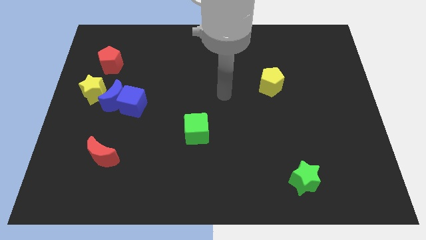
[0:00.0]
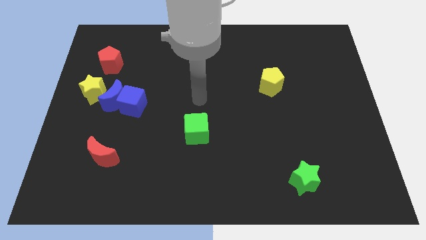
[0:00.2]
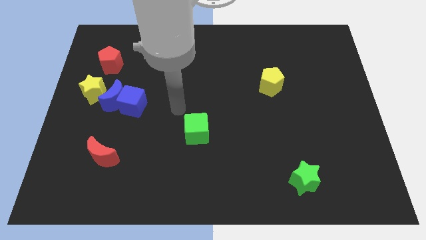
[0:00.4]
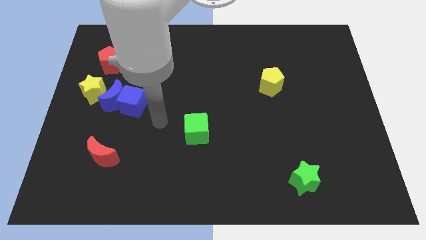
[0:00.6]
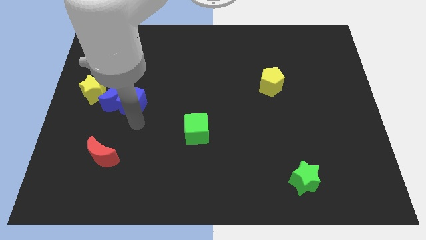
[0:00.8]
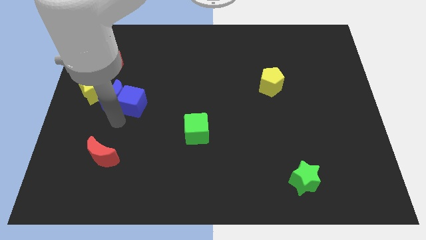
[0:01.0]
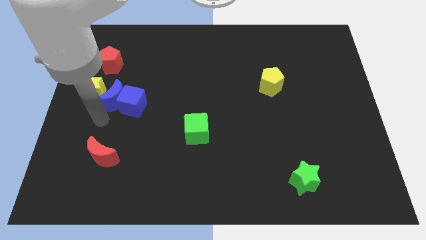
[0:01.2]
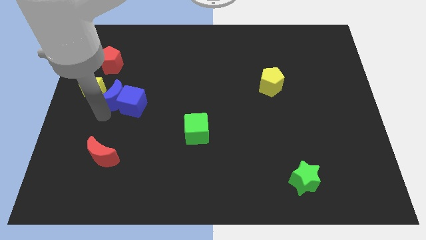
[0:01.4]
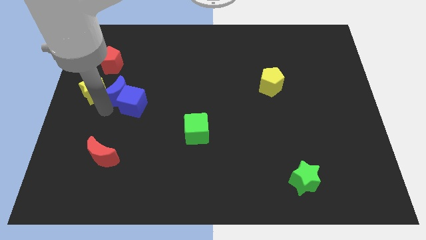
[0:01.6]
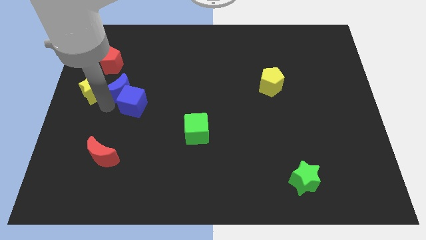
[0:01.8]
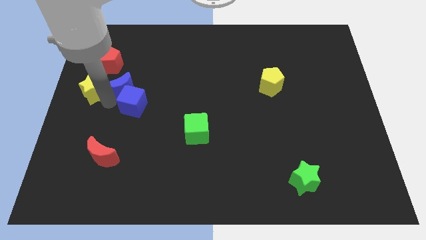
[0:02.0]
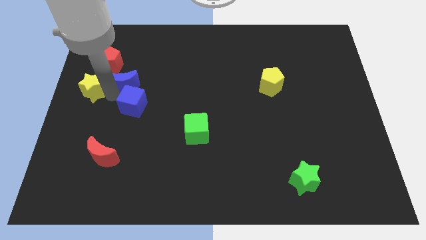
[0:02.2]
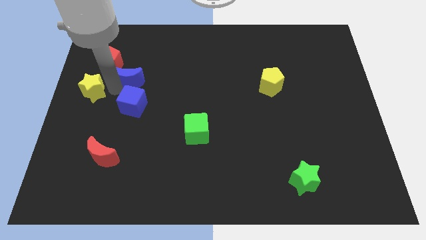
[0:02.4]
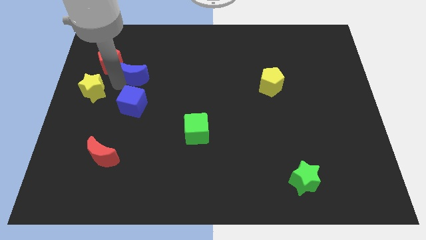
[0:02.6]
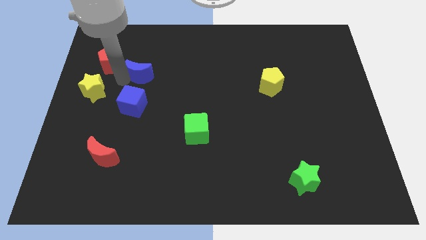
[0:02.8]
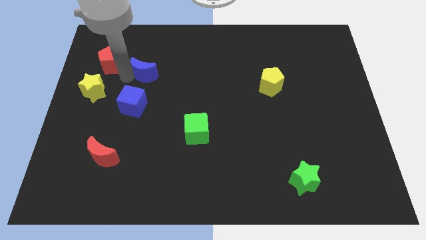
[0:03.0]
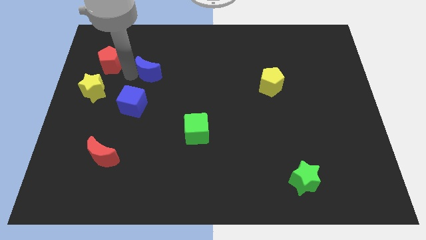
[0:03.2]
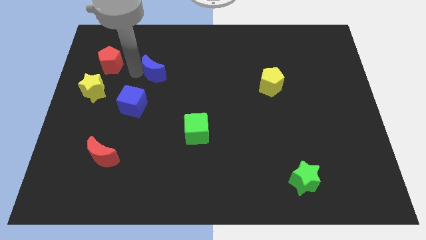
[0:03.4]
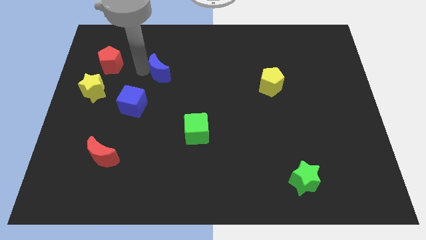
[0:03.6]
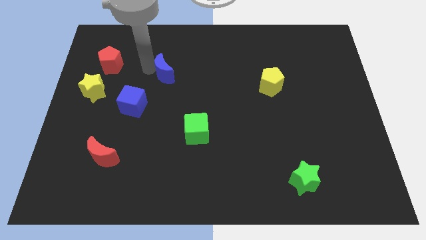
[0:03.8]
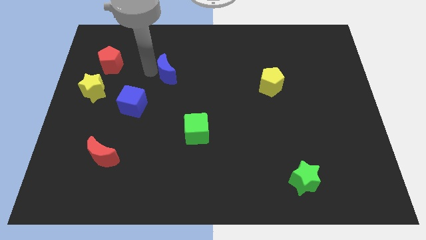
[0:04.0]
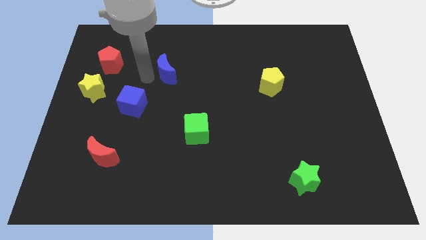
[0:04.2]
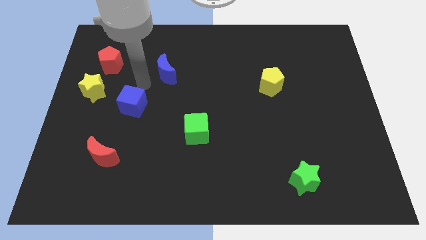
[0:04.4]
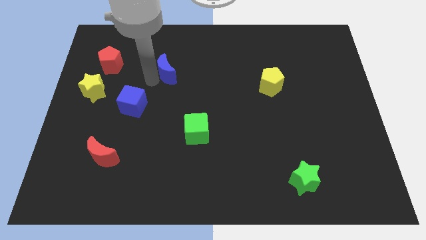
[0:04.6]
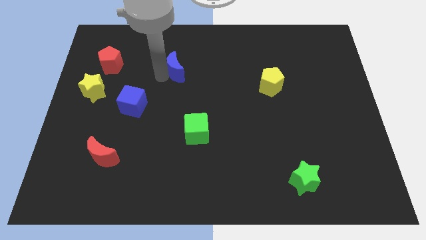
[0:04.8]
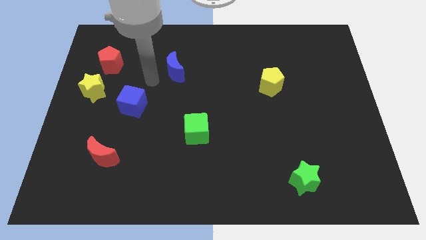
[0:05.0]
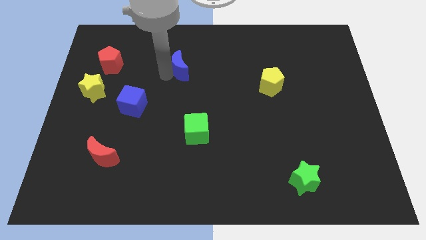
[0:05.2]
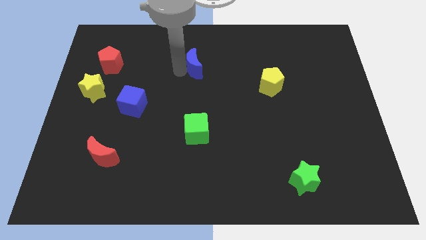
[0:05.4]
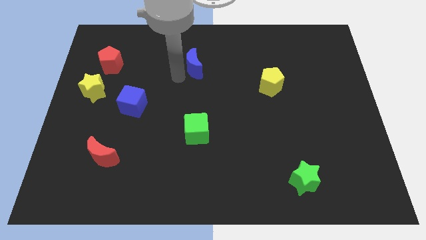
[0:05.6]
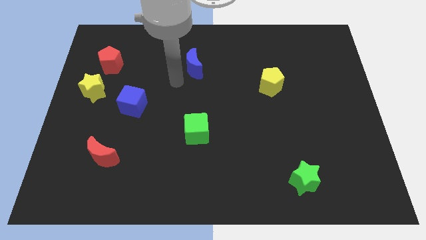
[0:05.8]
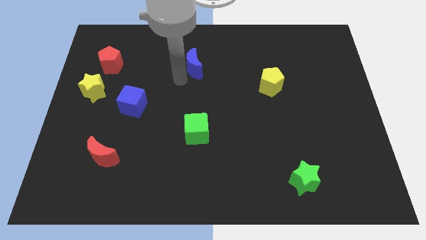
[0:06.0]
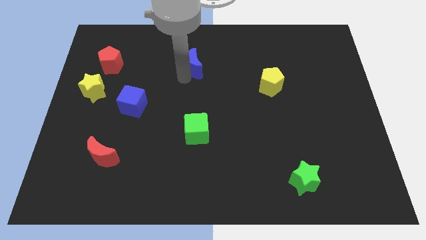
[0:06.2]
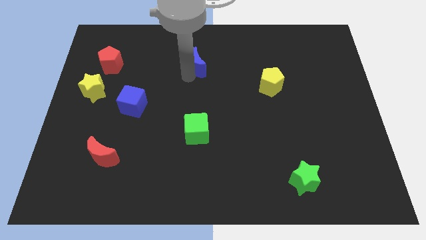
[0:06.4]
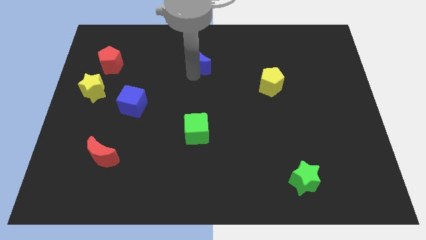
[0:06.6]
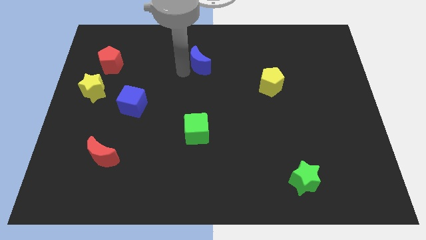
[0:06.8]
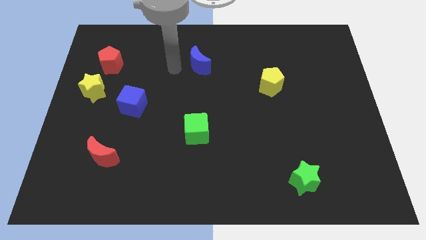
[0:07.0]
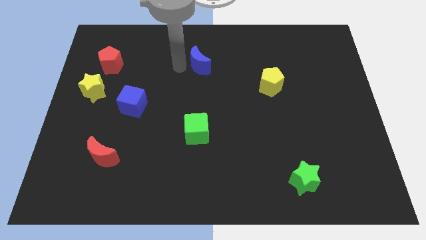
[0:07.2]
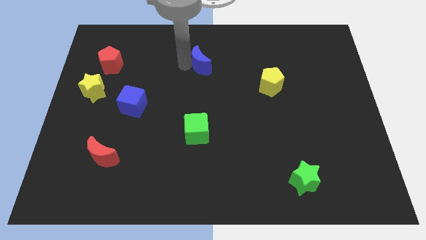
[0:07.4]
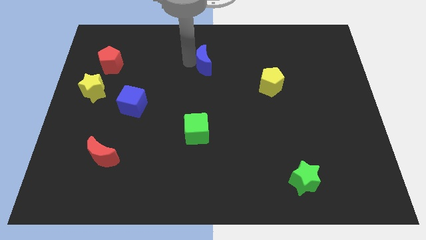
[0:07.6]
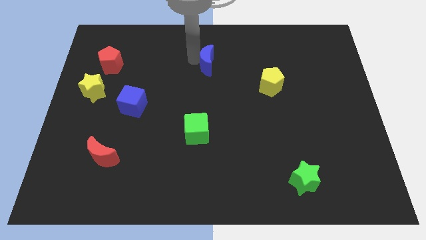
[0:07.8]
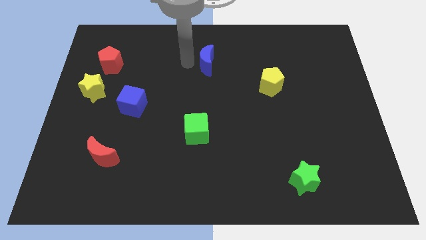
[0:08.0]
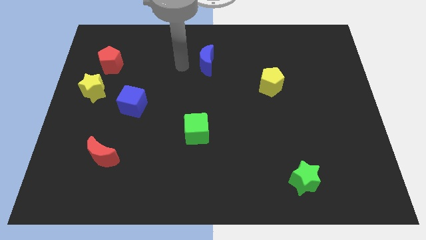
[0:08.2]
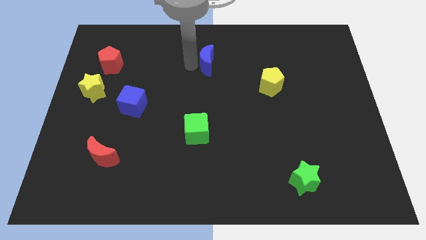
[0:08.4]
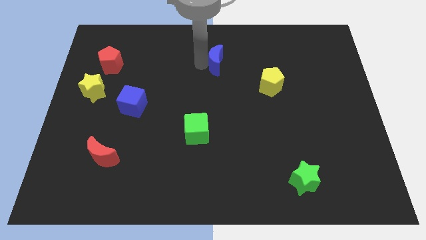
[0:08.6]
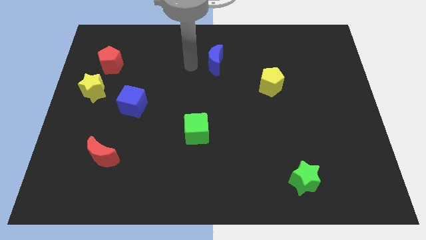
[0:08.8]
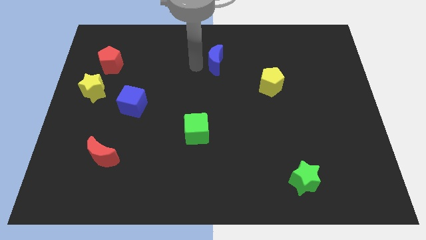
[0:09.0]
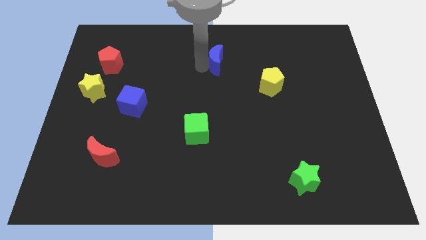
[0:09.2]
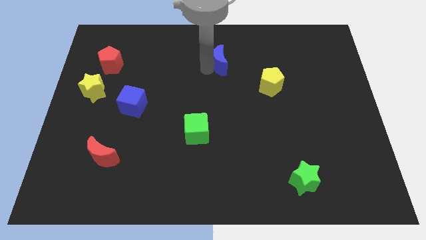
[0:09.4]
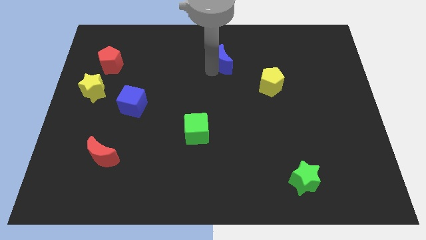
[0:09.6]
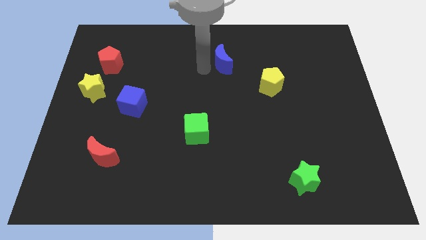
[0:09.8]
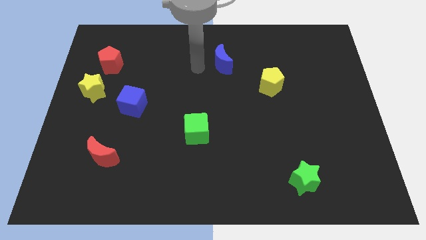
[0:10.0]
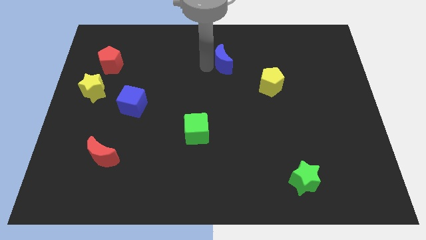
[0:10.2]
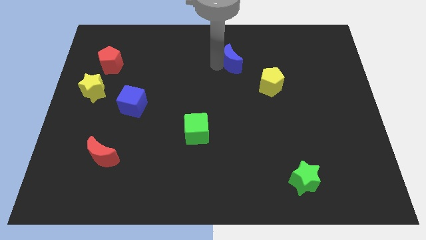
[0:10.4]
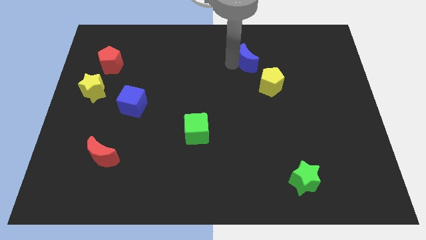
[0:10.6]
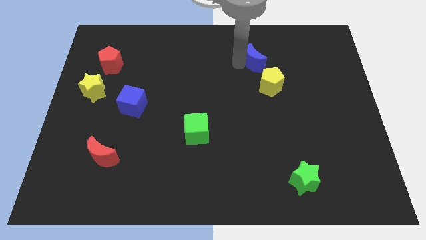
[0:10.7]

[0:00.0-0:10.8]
put the blue moon above the yellow pentagon

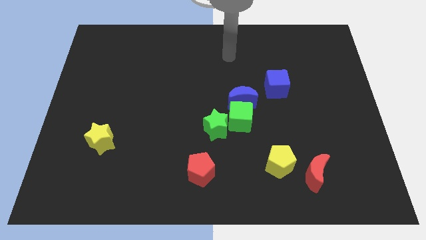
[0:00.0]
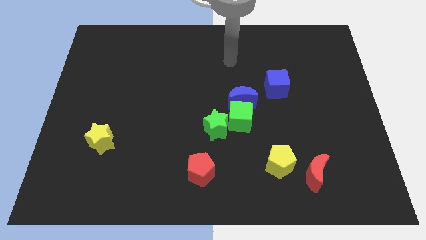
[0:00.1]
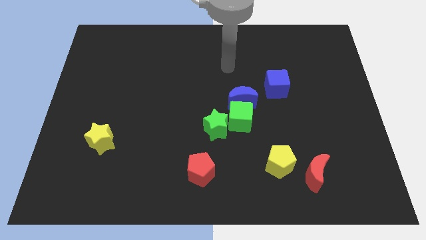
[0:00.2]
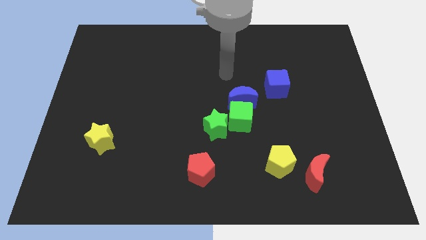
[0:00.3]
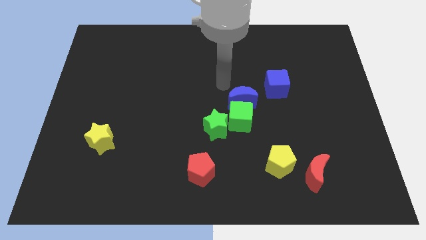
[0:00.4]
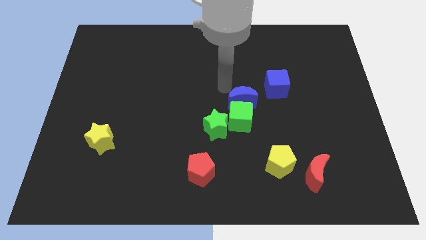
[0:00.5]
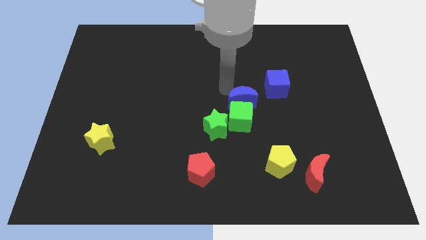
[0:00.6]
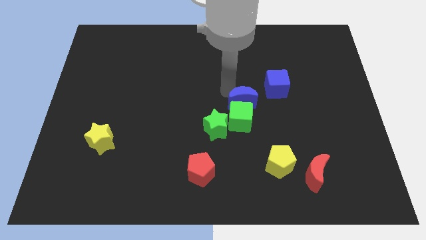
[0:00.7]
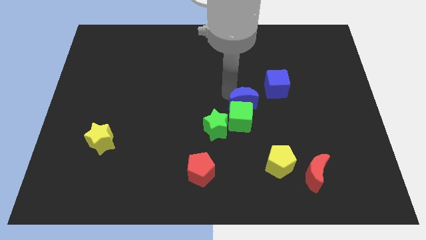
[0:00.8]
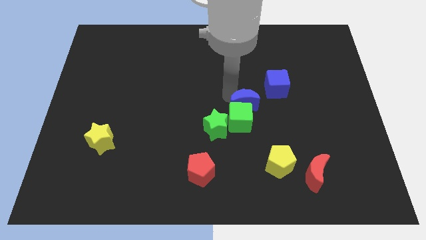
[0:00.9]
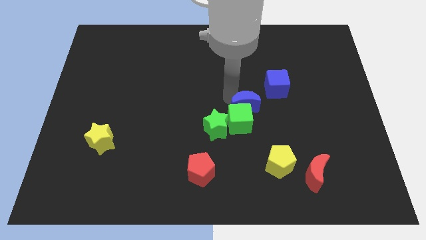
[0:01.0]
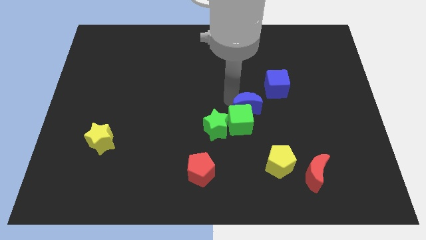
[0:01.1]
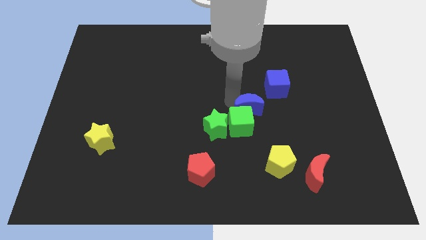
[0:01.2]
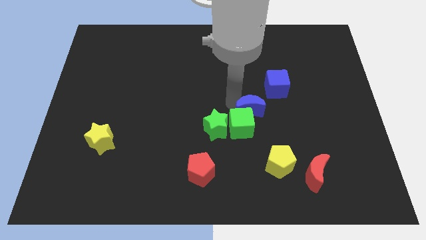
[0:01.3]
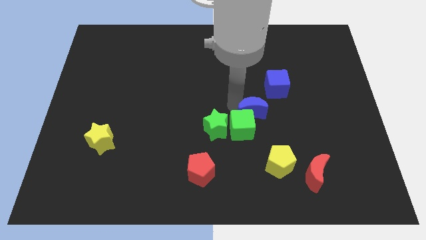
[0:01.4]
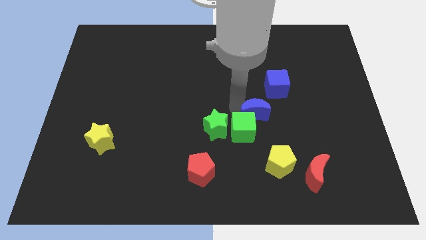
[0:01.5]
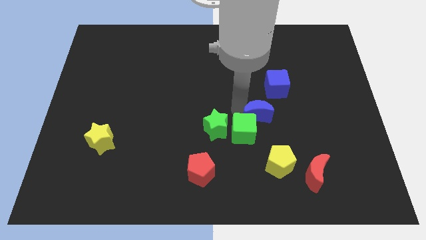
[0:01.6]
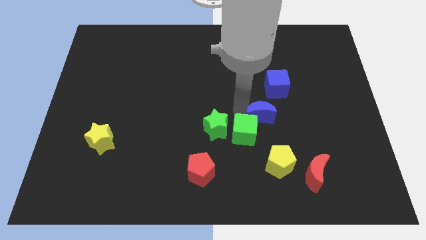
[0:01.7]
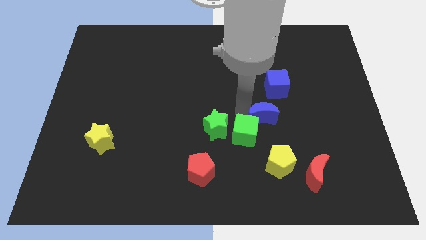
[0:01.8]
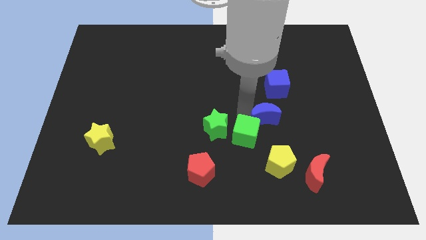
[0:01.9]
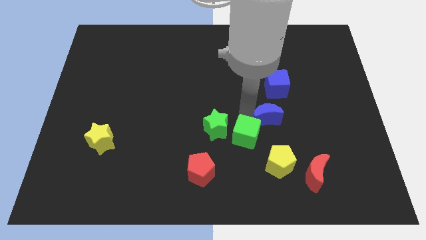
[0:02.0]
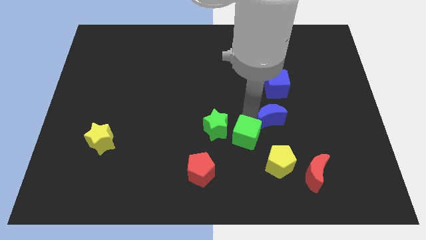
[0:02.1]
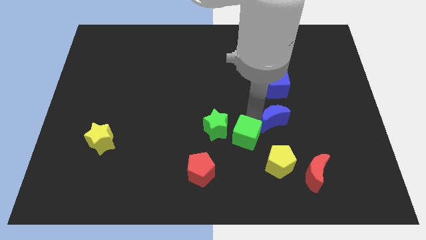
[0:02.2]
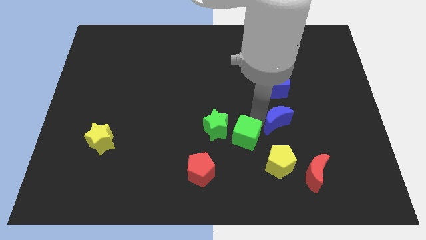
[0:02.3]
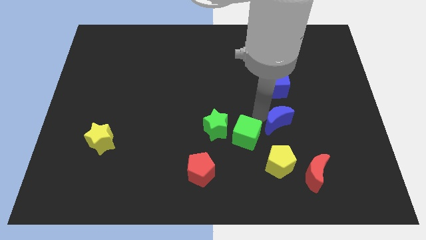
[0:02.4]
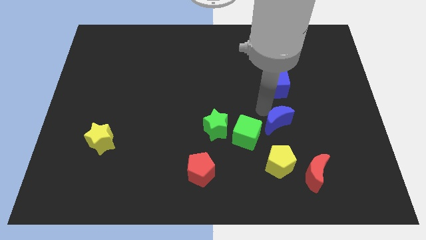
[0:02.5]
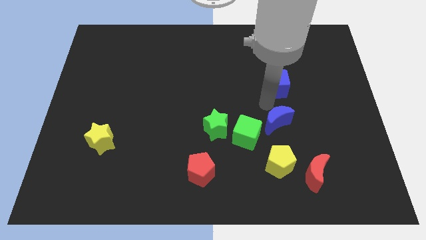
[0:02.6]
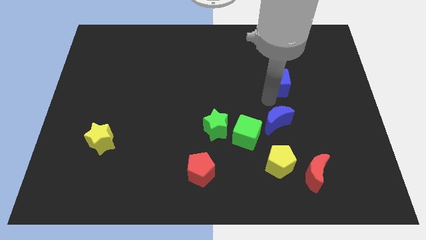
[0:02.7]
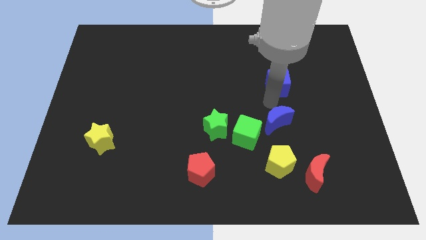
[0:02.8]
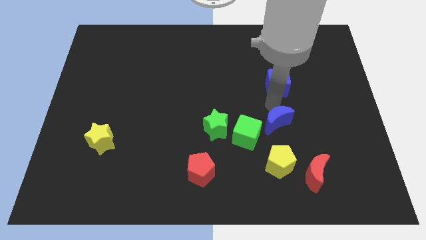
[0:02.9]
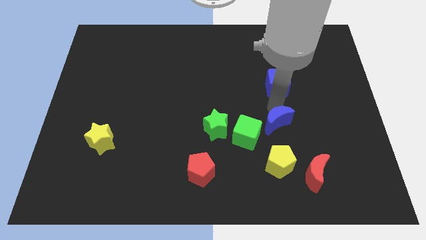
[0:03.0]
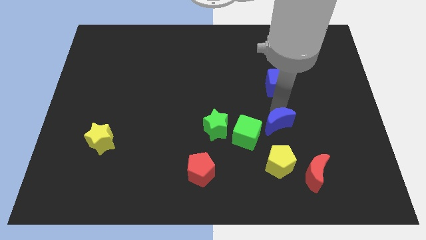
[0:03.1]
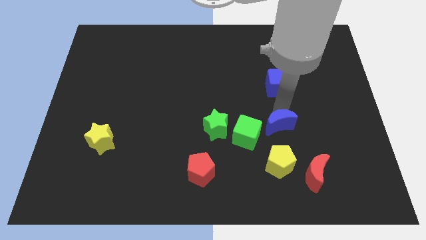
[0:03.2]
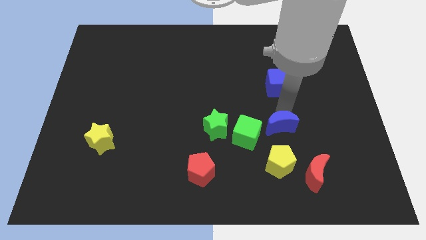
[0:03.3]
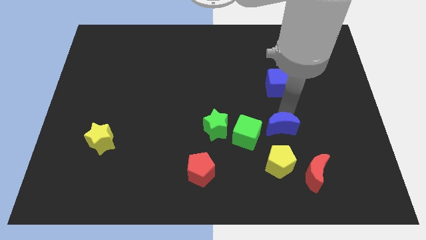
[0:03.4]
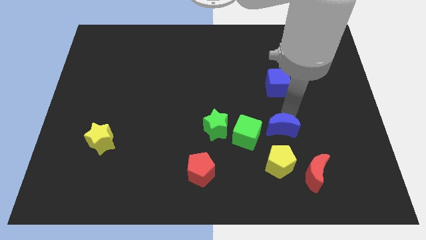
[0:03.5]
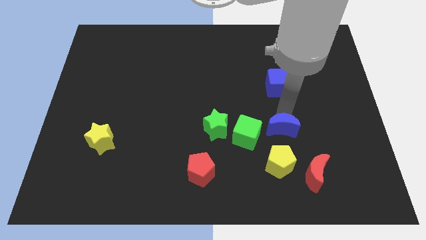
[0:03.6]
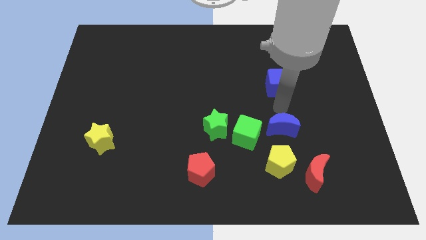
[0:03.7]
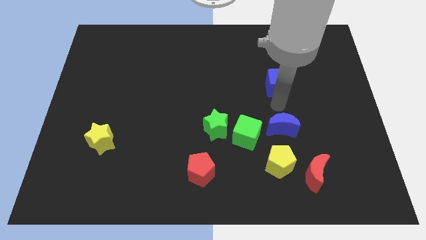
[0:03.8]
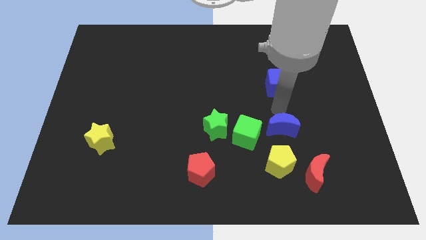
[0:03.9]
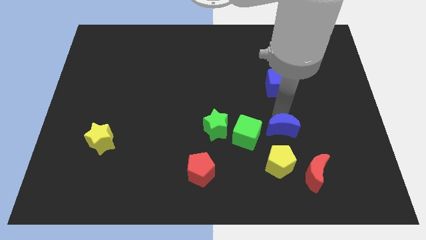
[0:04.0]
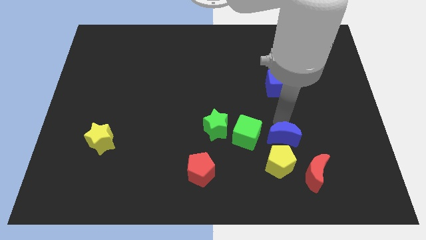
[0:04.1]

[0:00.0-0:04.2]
put the blue moon to the top left of the red moon
